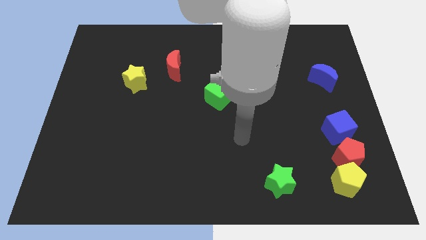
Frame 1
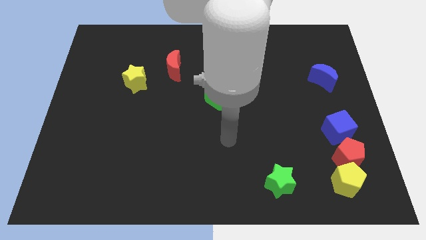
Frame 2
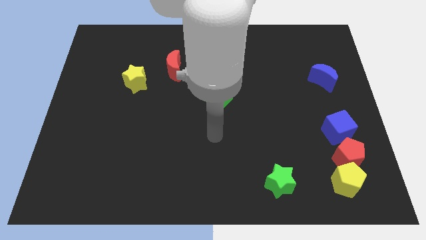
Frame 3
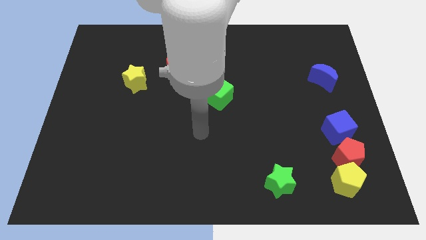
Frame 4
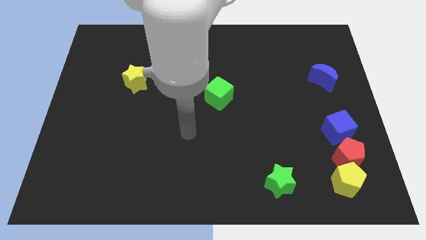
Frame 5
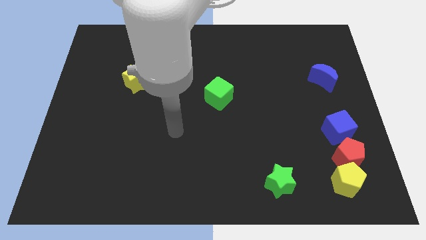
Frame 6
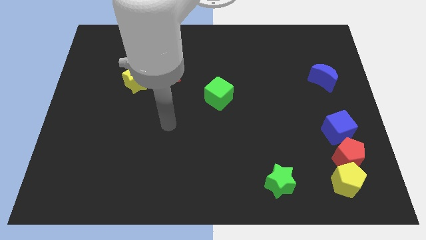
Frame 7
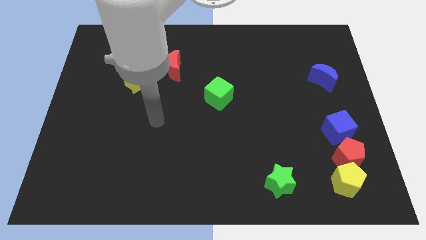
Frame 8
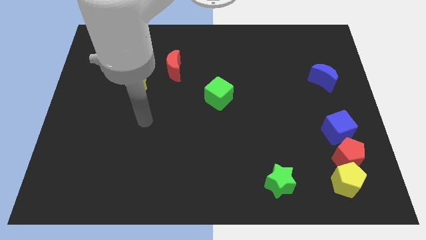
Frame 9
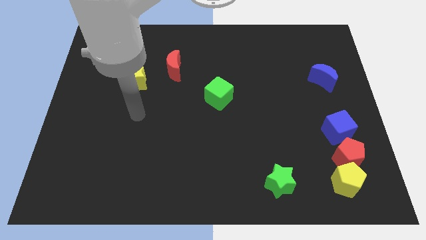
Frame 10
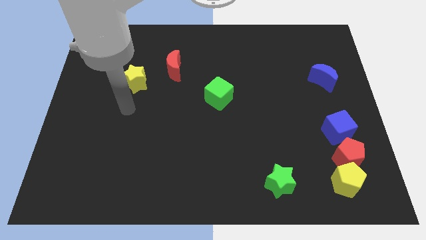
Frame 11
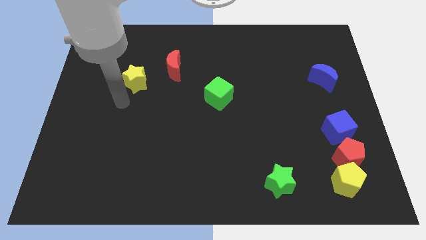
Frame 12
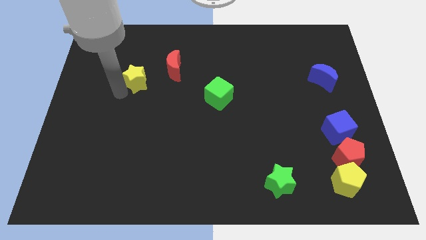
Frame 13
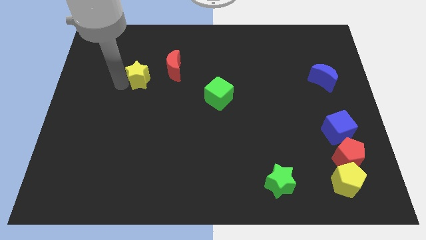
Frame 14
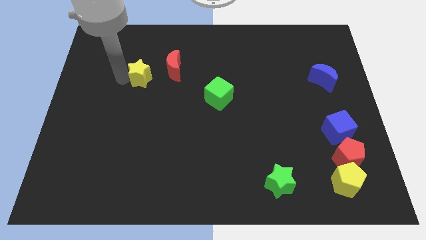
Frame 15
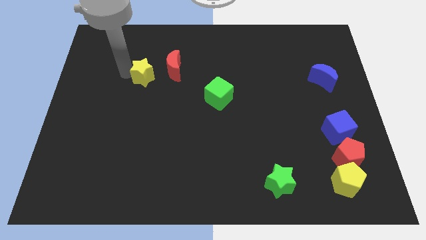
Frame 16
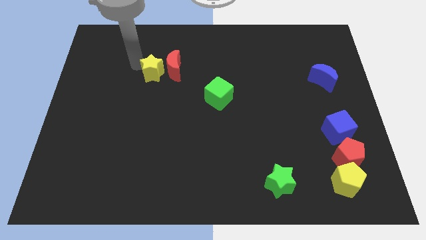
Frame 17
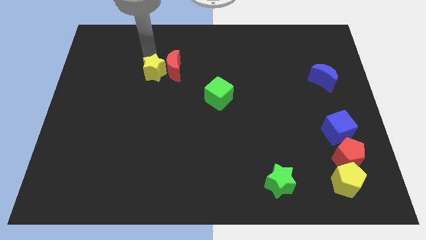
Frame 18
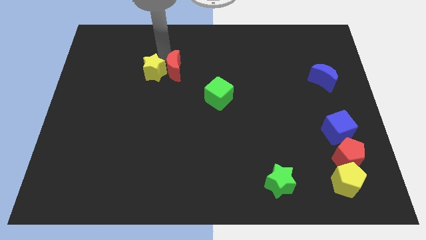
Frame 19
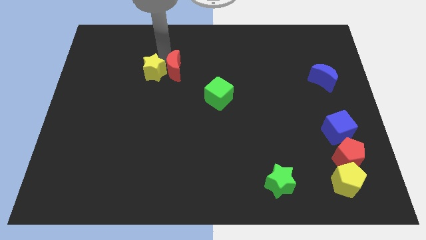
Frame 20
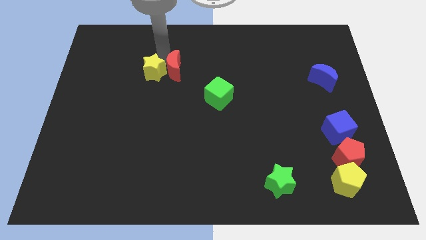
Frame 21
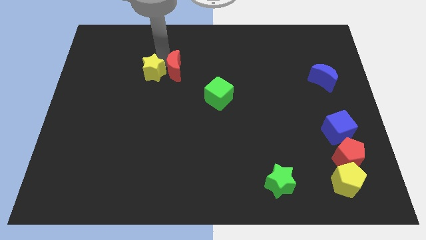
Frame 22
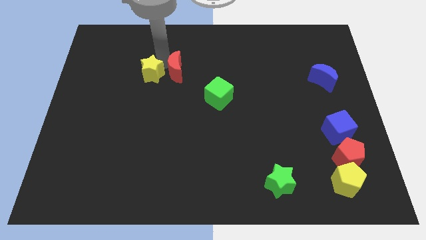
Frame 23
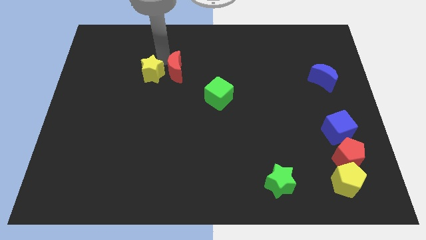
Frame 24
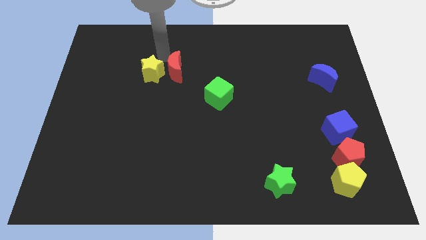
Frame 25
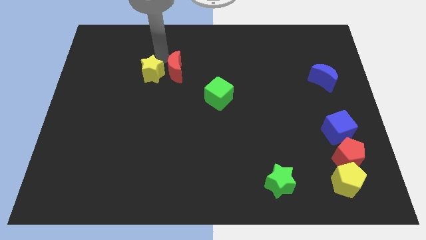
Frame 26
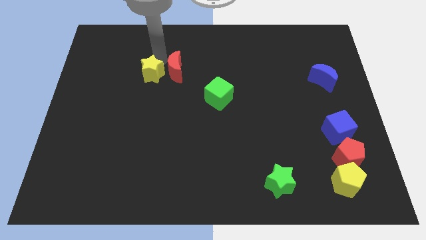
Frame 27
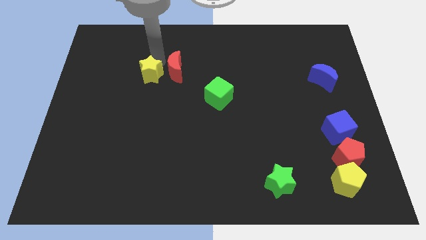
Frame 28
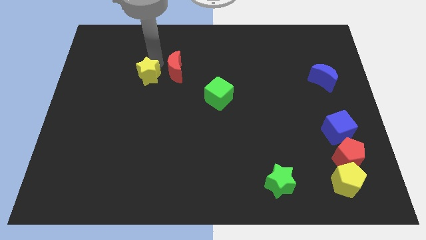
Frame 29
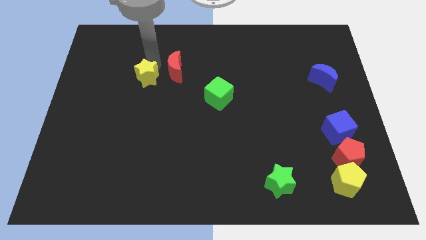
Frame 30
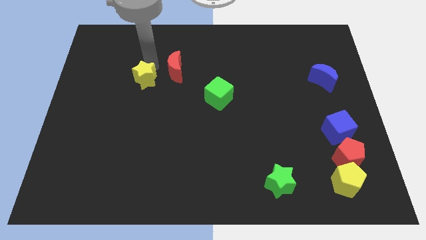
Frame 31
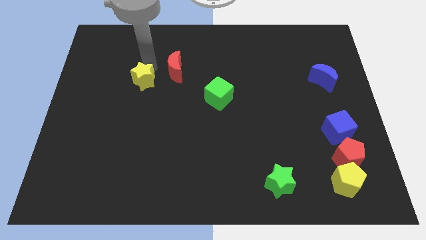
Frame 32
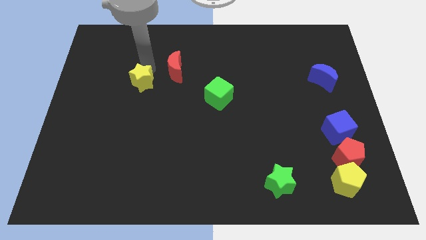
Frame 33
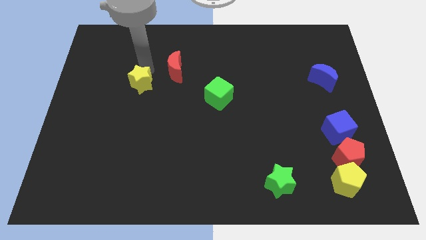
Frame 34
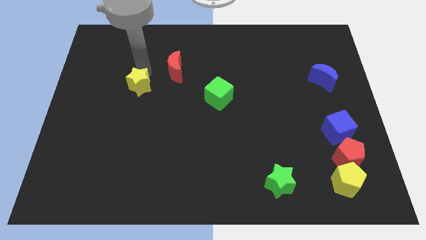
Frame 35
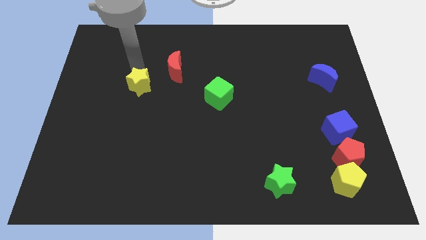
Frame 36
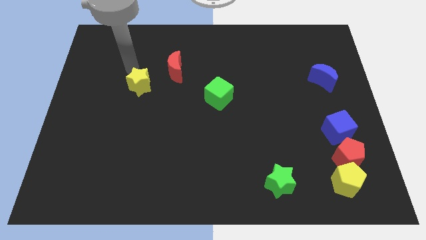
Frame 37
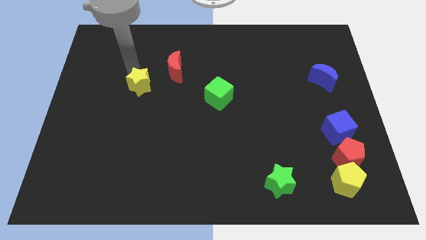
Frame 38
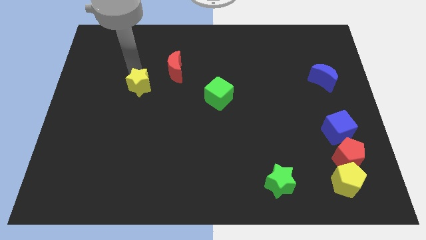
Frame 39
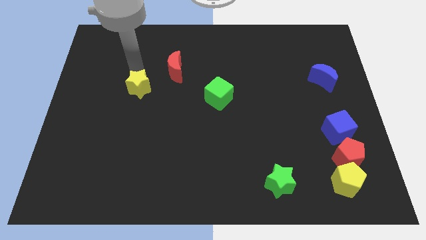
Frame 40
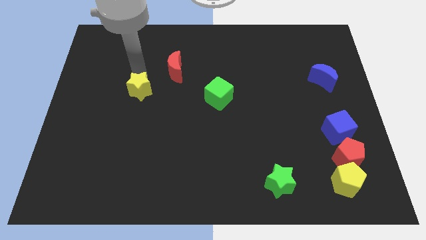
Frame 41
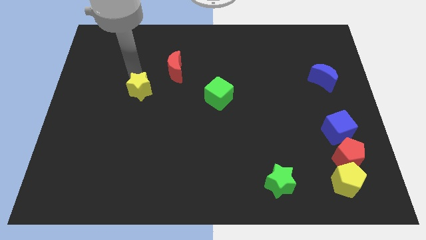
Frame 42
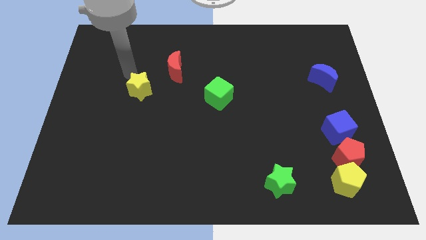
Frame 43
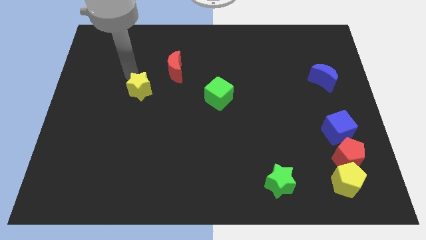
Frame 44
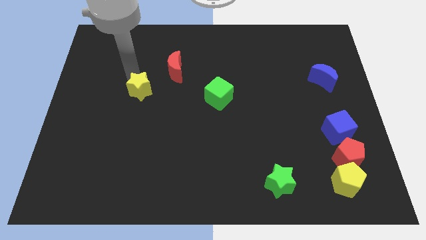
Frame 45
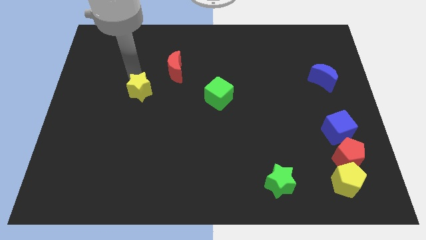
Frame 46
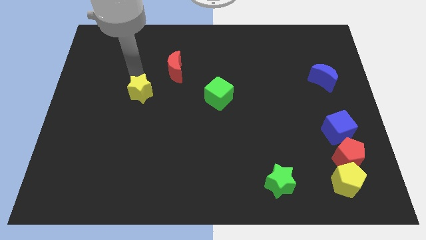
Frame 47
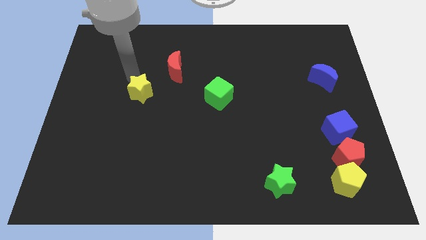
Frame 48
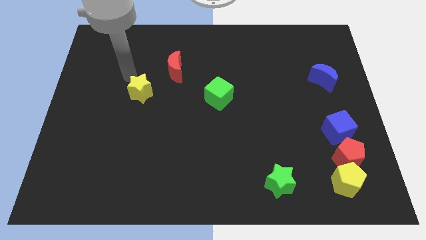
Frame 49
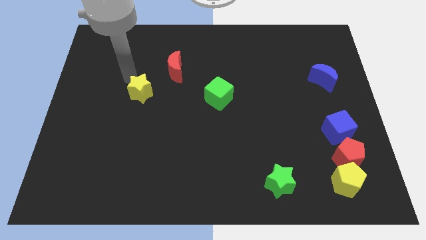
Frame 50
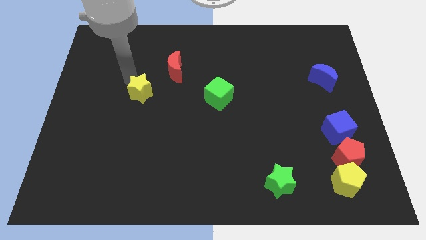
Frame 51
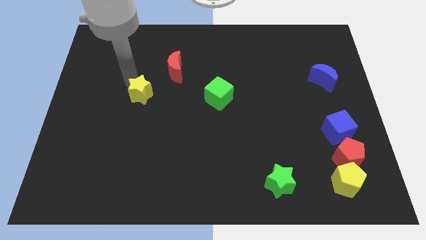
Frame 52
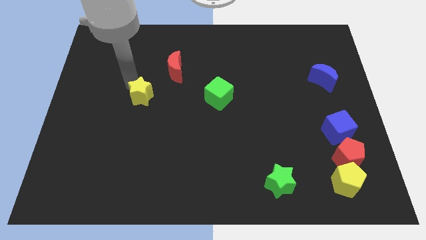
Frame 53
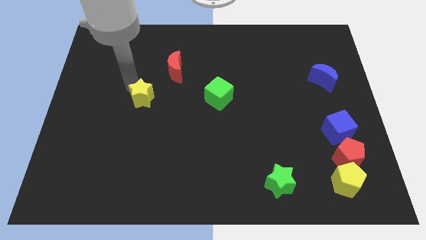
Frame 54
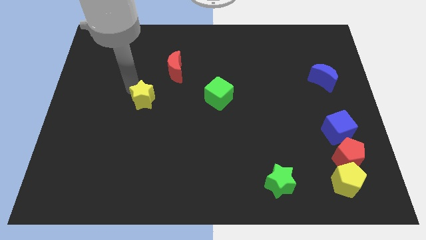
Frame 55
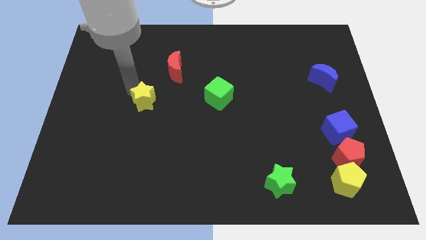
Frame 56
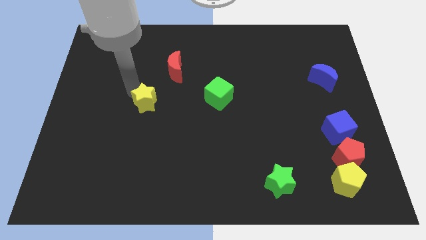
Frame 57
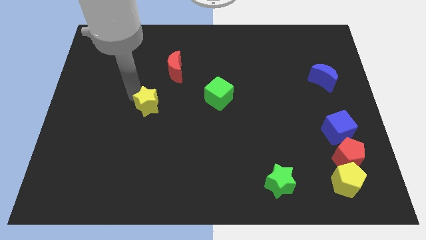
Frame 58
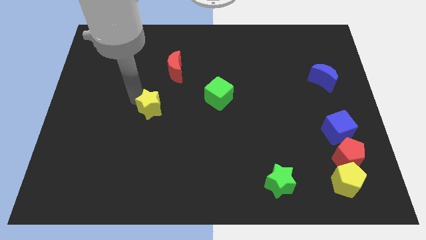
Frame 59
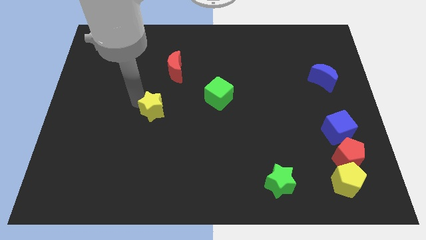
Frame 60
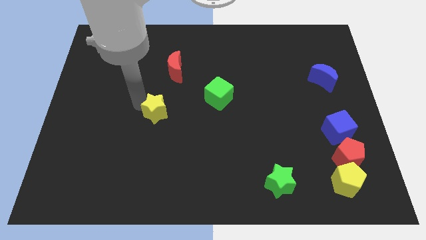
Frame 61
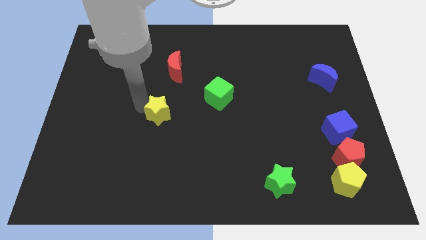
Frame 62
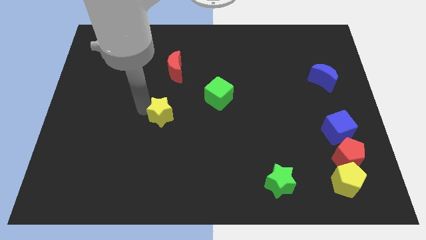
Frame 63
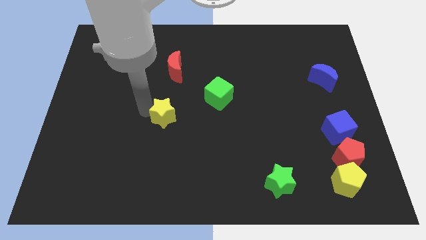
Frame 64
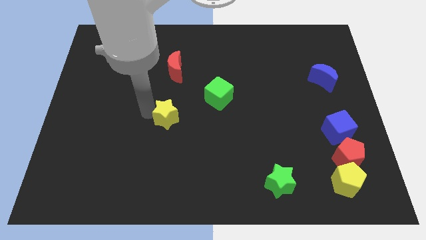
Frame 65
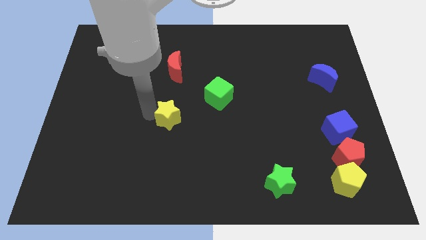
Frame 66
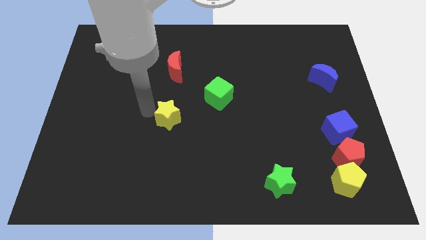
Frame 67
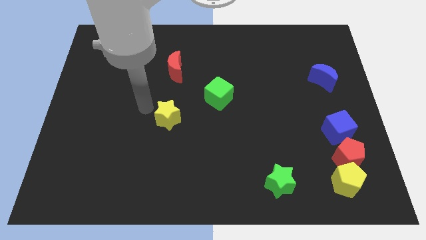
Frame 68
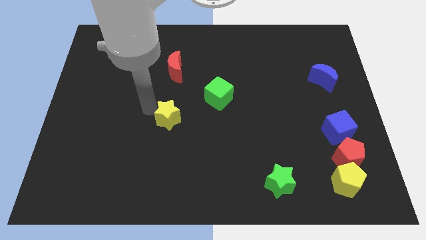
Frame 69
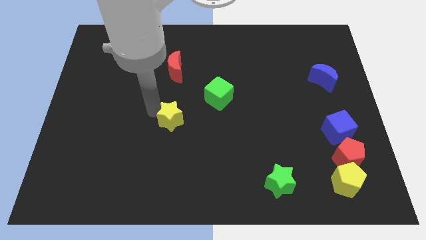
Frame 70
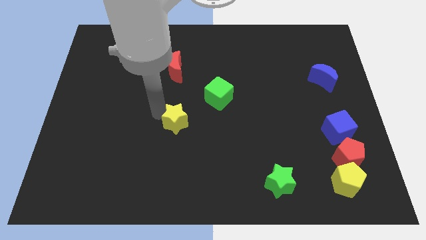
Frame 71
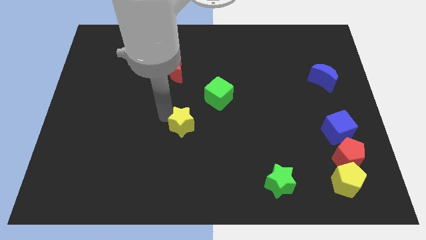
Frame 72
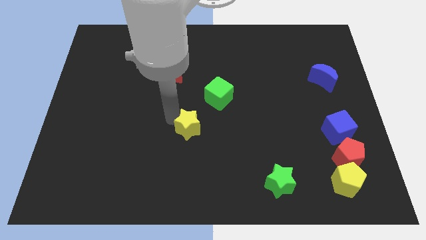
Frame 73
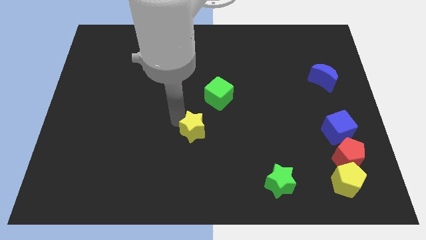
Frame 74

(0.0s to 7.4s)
slide the yellow star diagonally downwards and to the right

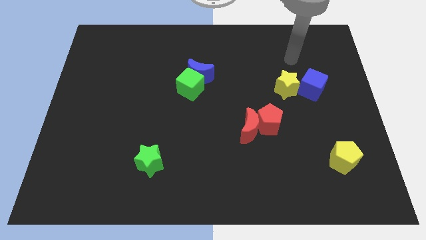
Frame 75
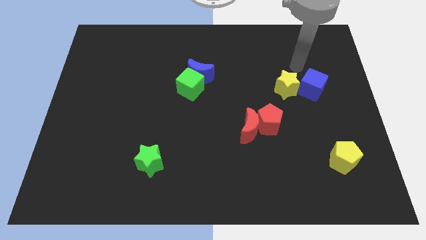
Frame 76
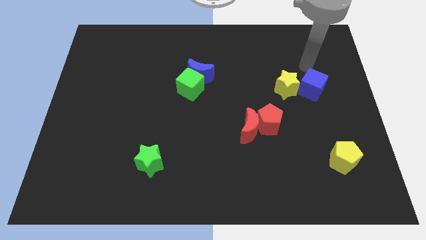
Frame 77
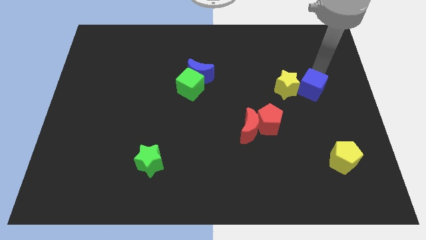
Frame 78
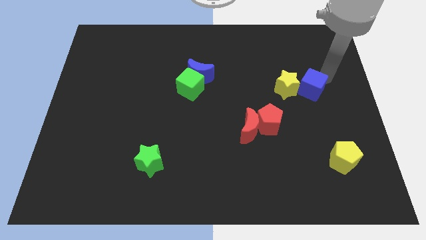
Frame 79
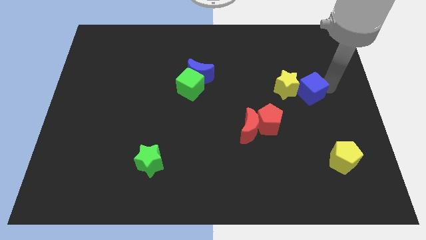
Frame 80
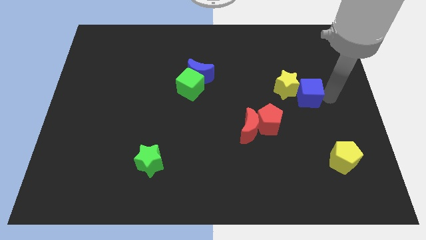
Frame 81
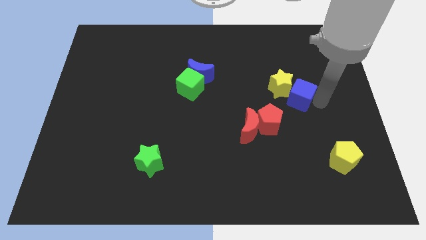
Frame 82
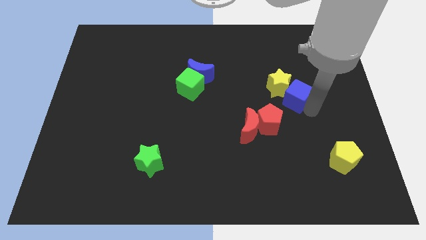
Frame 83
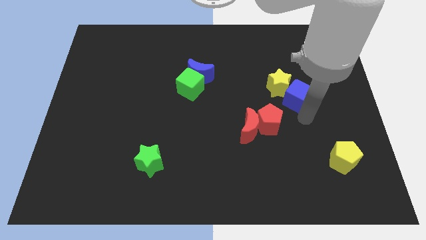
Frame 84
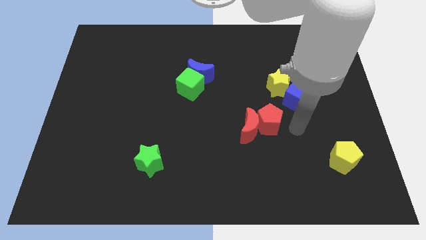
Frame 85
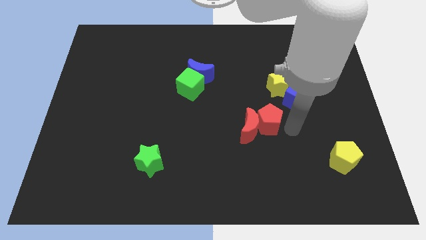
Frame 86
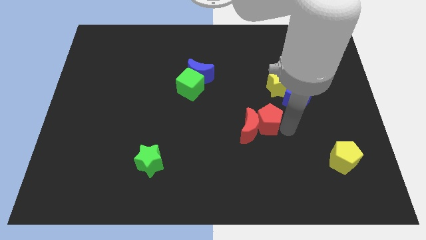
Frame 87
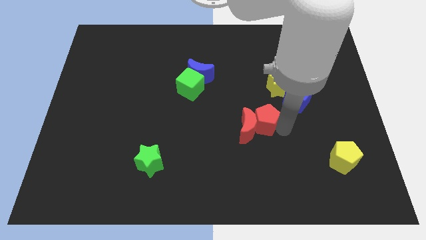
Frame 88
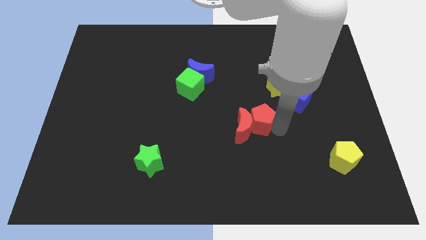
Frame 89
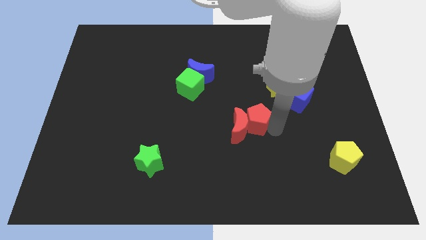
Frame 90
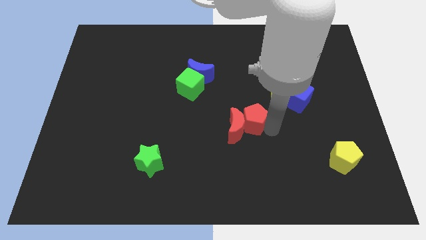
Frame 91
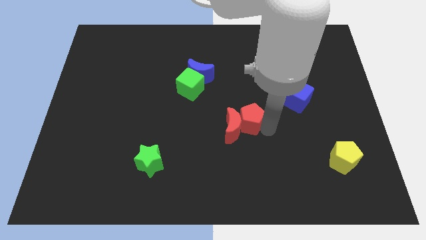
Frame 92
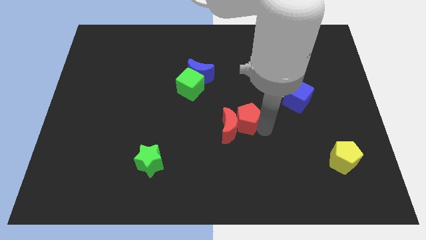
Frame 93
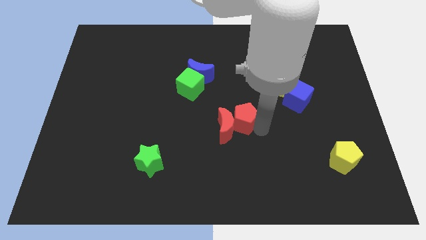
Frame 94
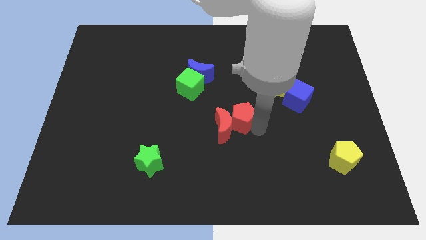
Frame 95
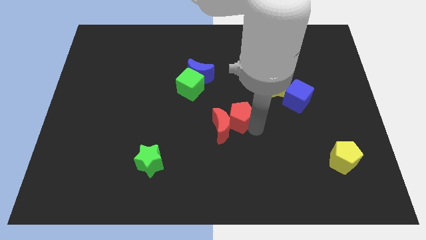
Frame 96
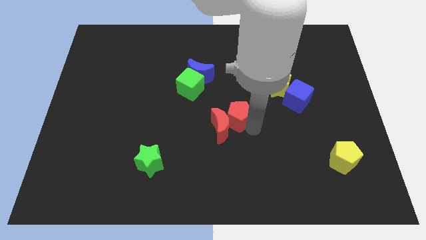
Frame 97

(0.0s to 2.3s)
slightly slide the red pentagon to the left
